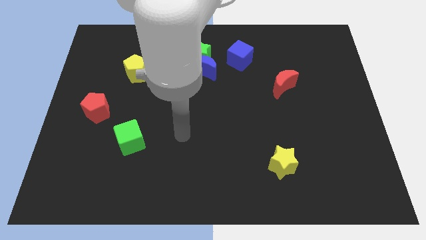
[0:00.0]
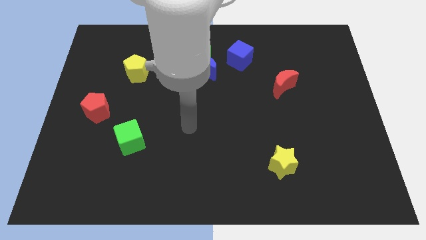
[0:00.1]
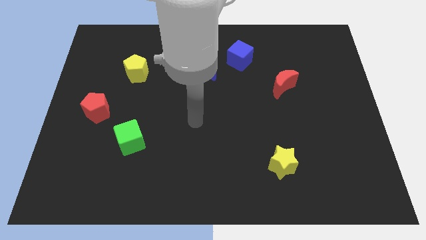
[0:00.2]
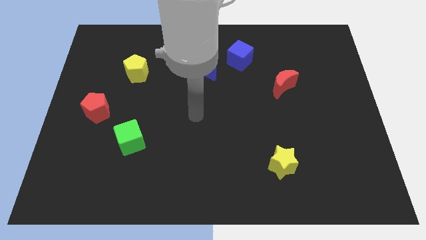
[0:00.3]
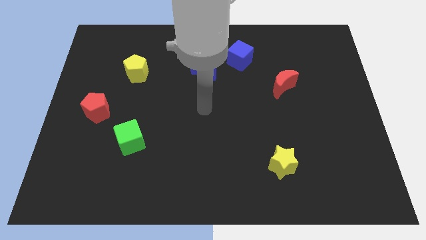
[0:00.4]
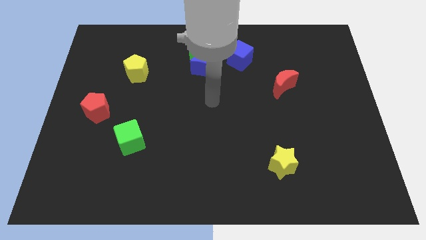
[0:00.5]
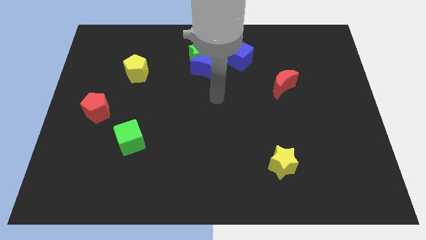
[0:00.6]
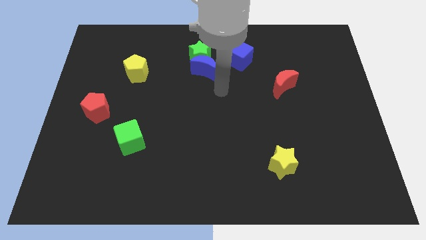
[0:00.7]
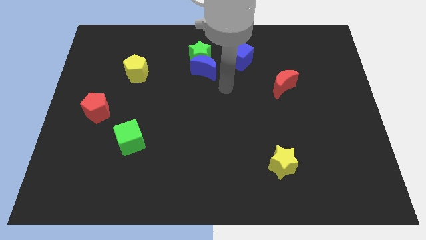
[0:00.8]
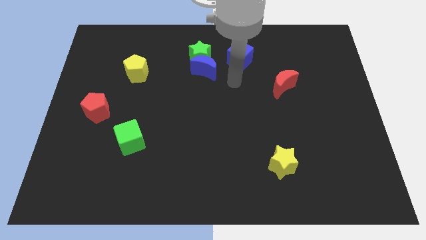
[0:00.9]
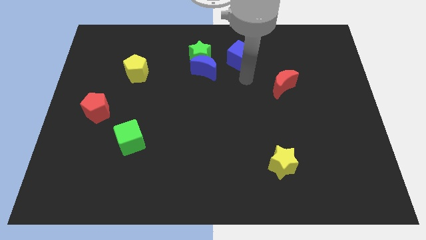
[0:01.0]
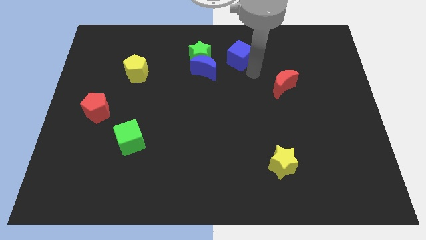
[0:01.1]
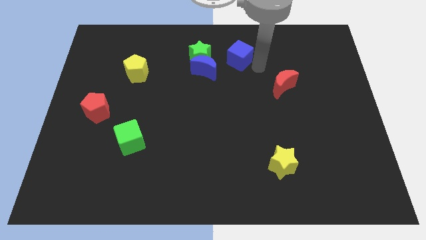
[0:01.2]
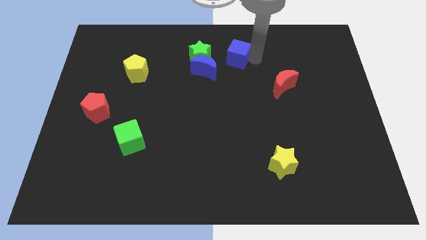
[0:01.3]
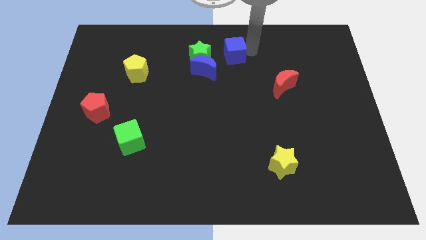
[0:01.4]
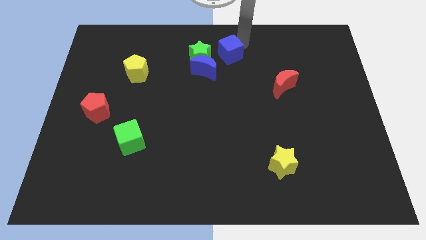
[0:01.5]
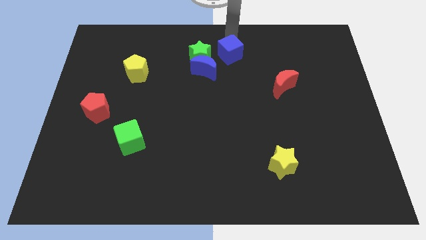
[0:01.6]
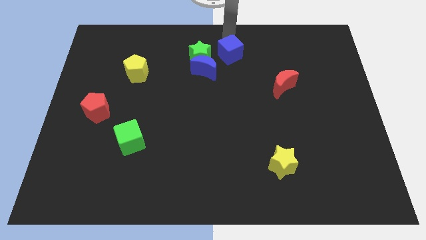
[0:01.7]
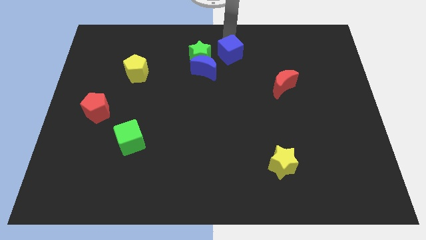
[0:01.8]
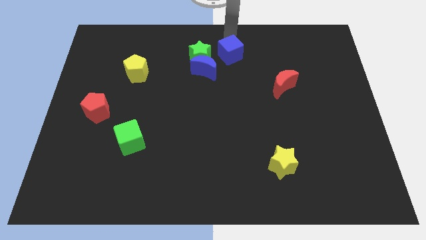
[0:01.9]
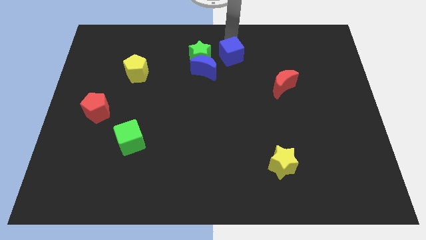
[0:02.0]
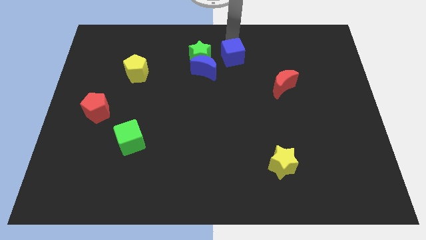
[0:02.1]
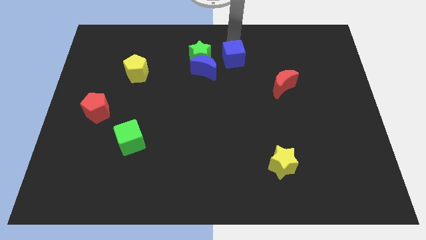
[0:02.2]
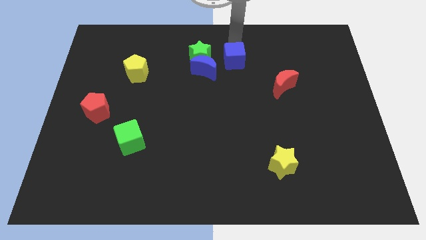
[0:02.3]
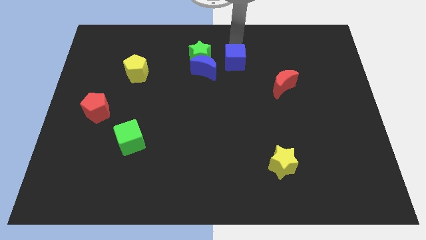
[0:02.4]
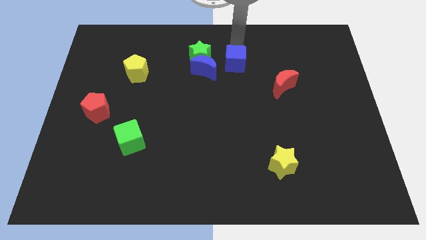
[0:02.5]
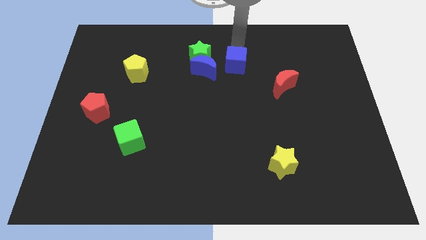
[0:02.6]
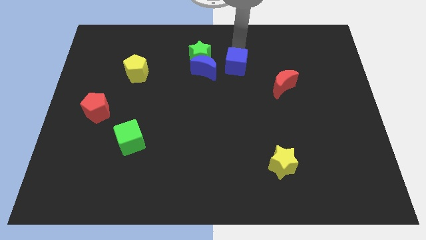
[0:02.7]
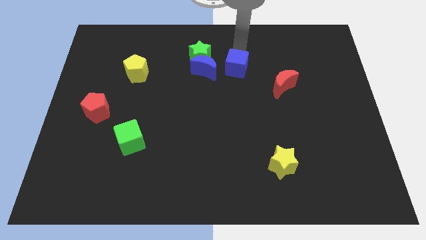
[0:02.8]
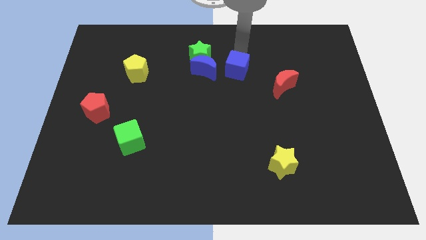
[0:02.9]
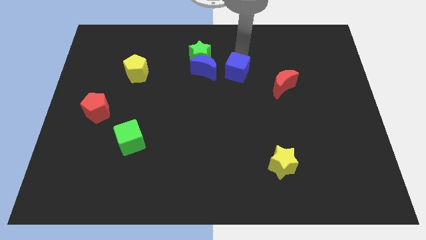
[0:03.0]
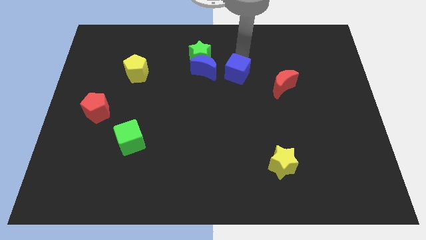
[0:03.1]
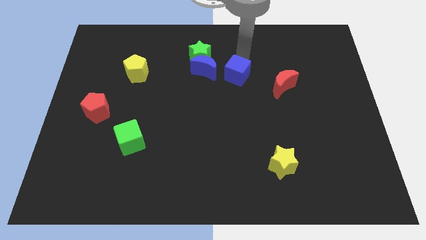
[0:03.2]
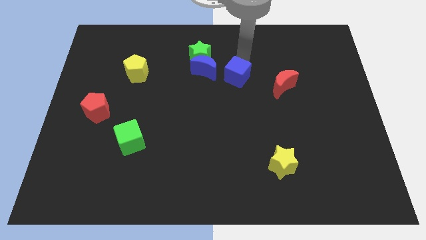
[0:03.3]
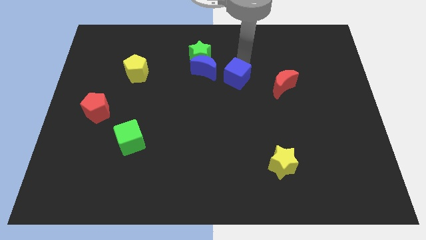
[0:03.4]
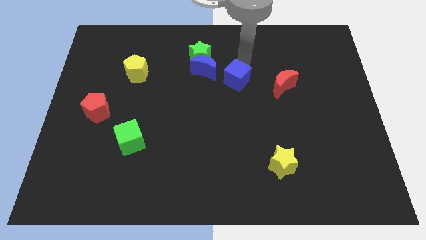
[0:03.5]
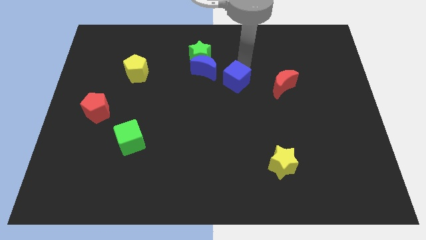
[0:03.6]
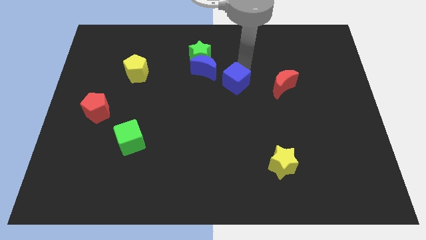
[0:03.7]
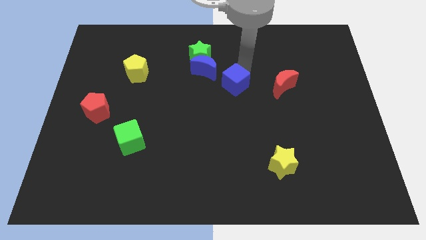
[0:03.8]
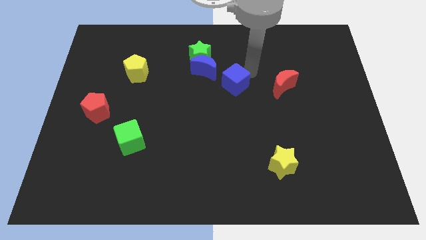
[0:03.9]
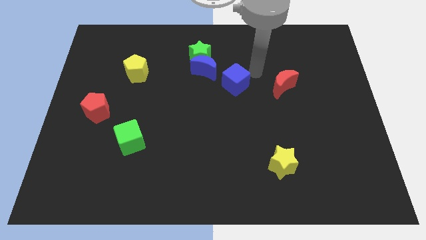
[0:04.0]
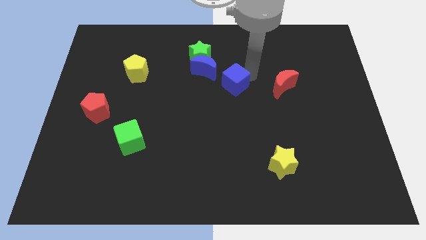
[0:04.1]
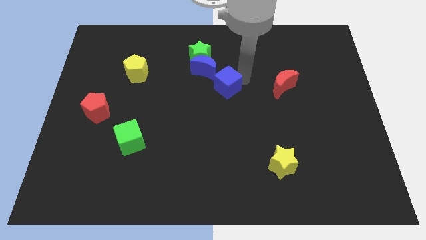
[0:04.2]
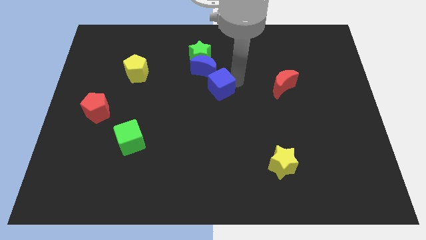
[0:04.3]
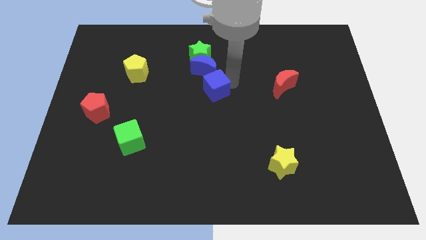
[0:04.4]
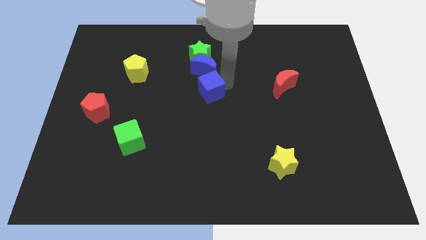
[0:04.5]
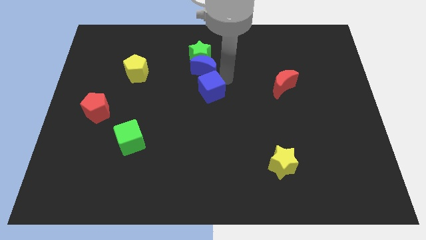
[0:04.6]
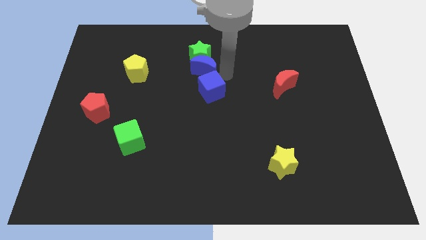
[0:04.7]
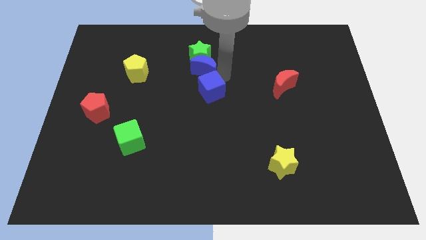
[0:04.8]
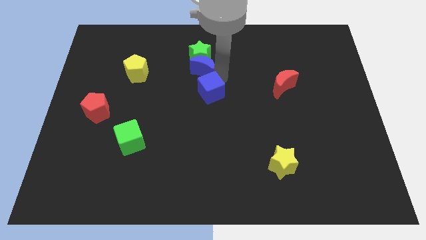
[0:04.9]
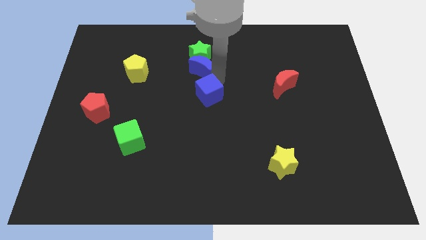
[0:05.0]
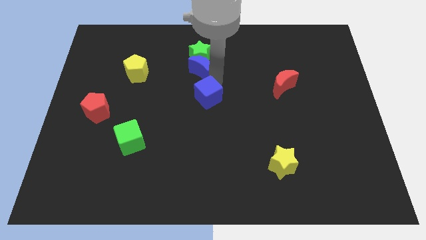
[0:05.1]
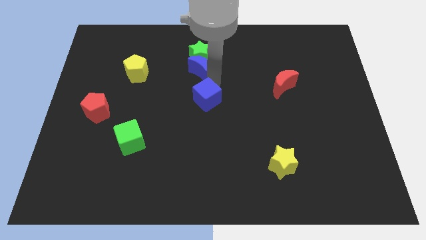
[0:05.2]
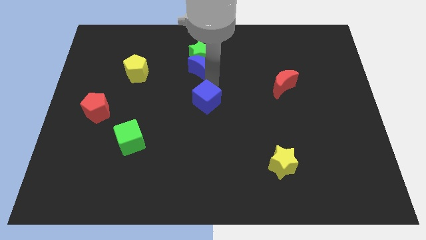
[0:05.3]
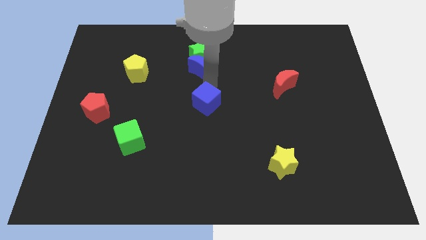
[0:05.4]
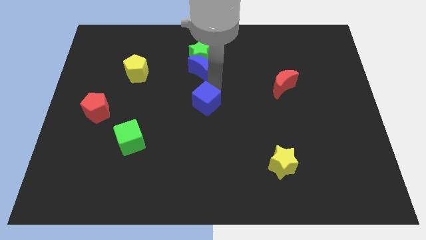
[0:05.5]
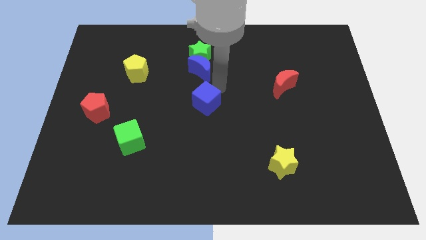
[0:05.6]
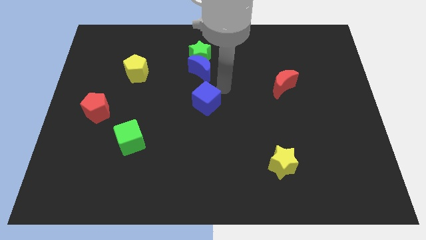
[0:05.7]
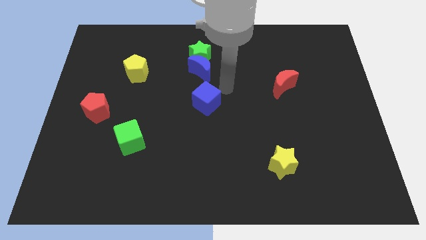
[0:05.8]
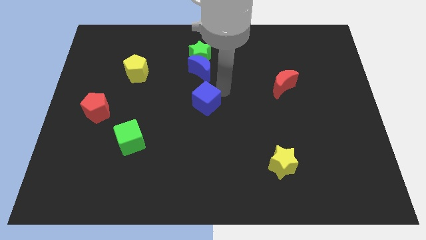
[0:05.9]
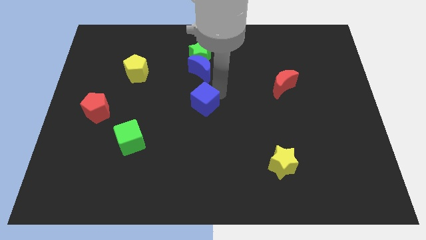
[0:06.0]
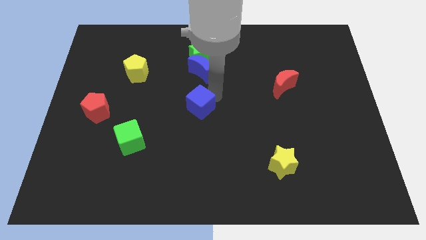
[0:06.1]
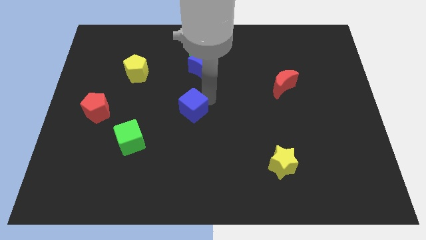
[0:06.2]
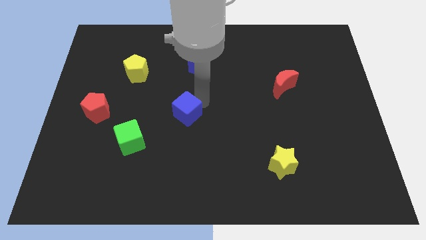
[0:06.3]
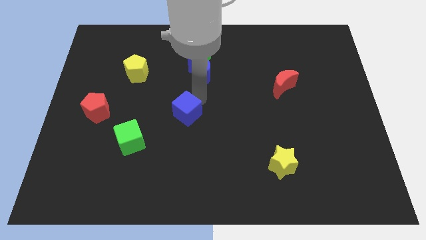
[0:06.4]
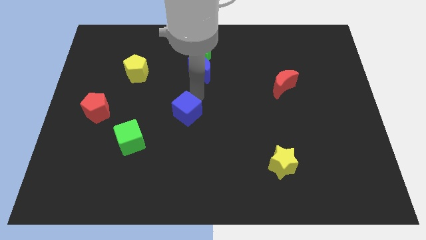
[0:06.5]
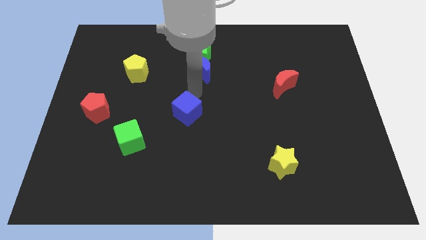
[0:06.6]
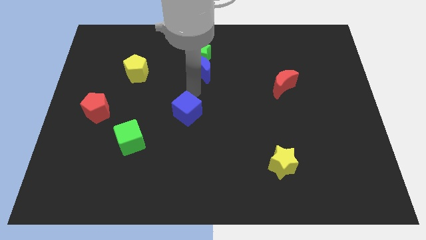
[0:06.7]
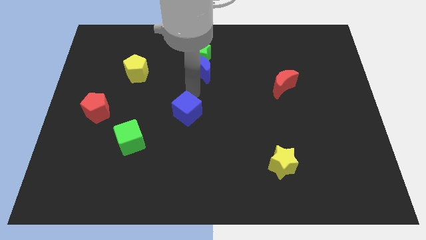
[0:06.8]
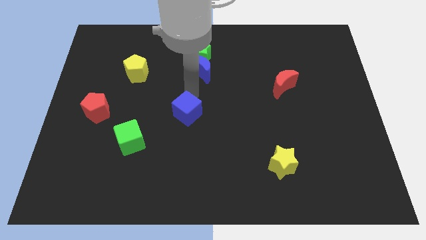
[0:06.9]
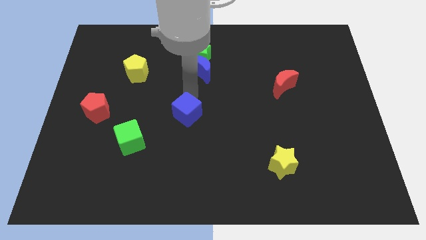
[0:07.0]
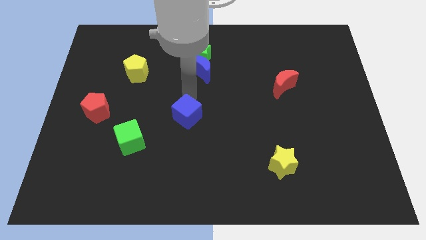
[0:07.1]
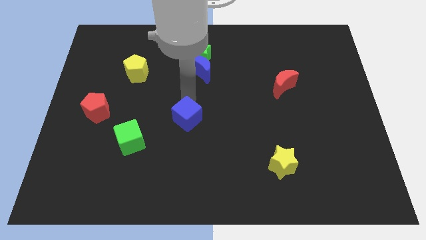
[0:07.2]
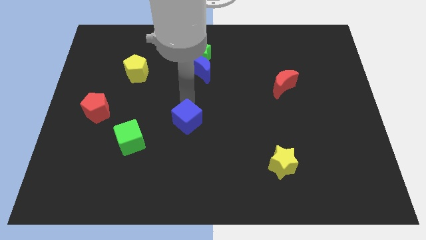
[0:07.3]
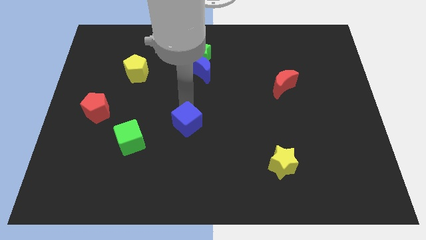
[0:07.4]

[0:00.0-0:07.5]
move the blue cube to the right of the green cube
